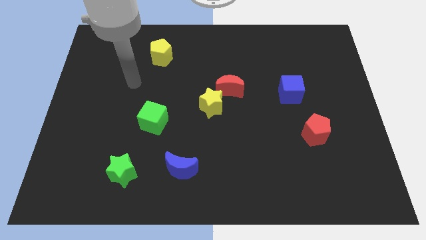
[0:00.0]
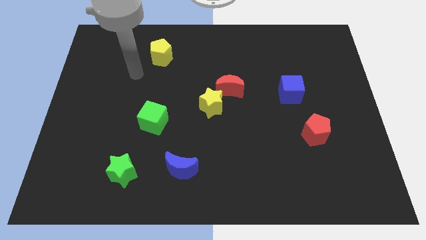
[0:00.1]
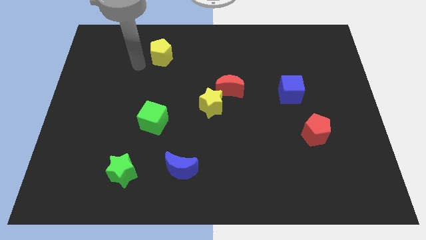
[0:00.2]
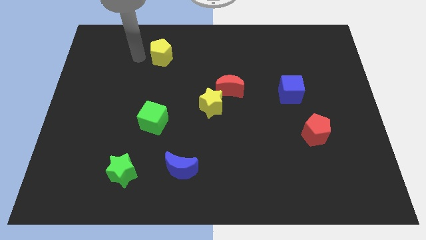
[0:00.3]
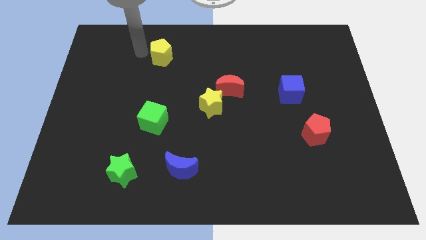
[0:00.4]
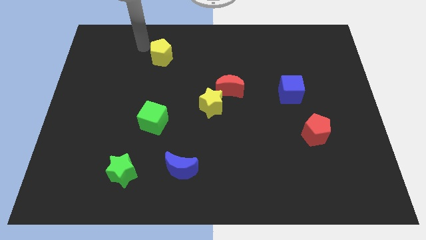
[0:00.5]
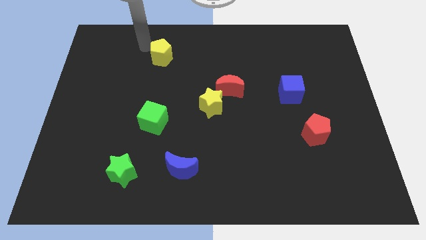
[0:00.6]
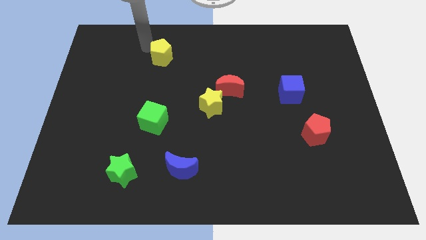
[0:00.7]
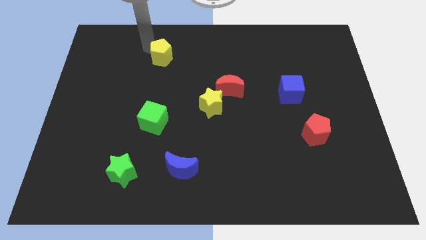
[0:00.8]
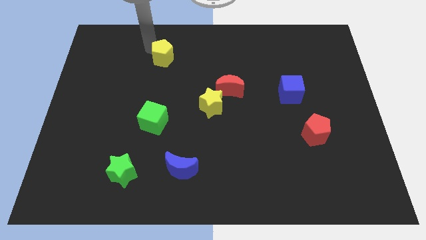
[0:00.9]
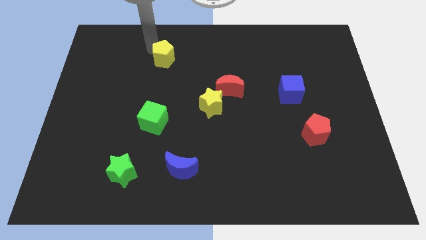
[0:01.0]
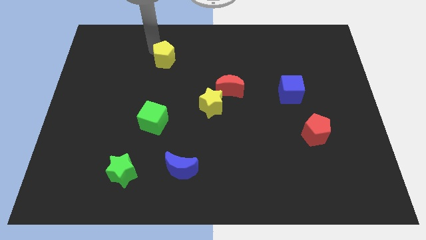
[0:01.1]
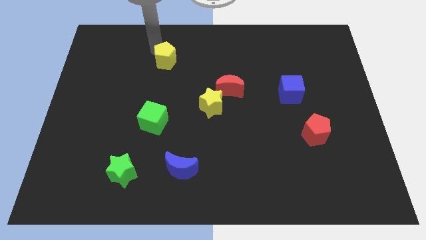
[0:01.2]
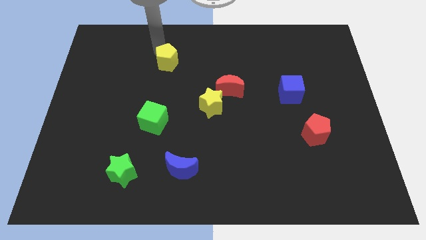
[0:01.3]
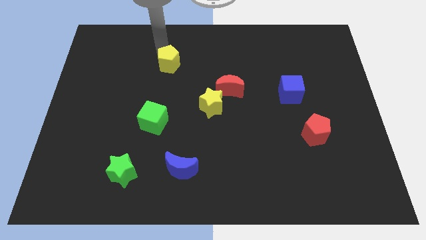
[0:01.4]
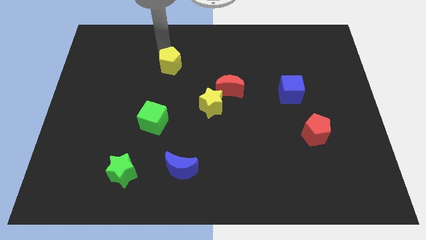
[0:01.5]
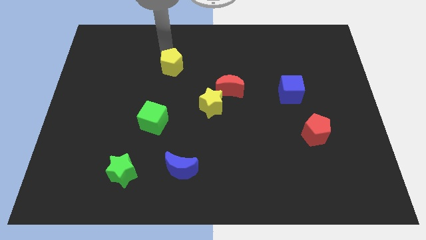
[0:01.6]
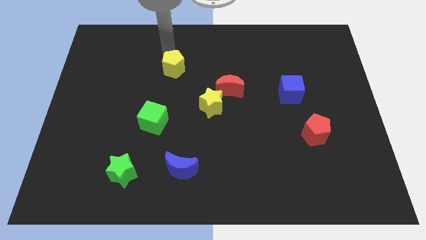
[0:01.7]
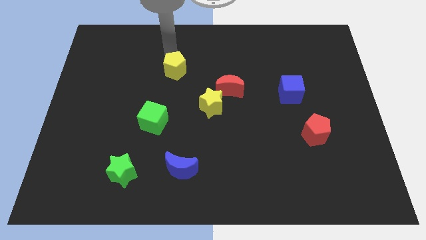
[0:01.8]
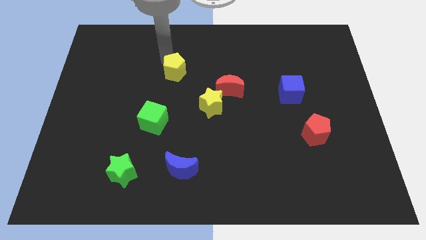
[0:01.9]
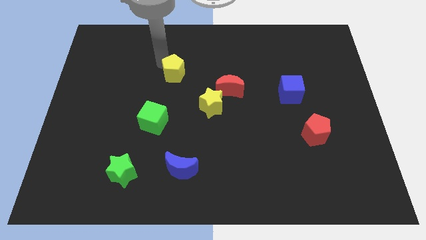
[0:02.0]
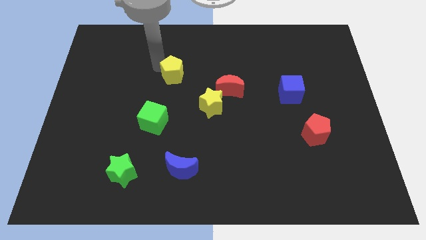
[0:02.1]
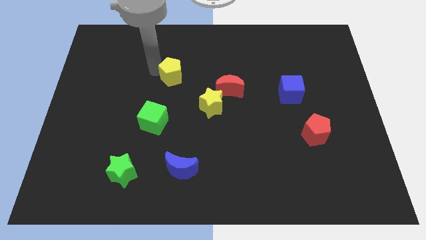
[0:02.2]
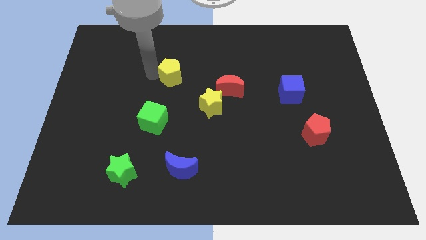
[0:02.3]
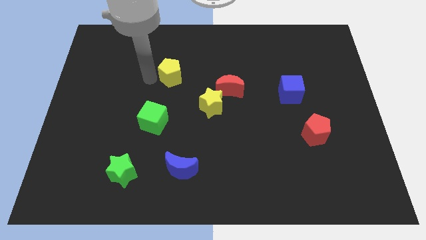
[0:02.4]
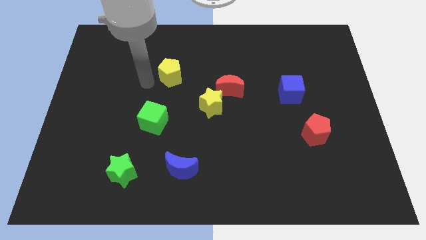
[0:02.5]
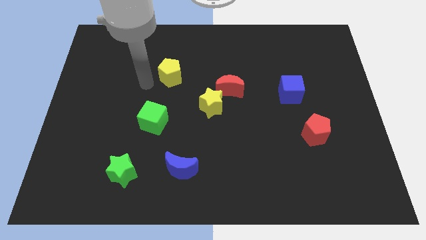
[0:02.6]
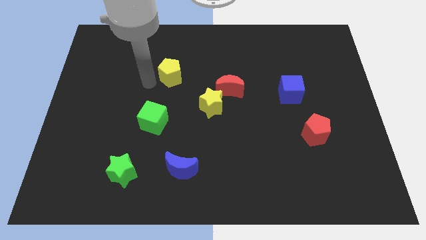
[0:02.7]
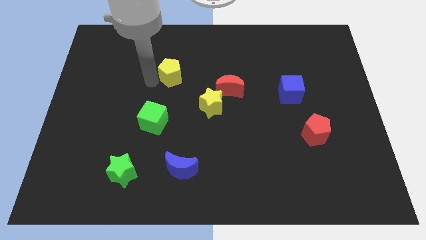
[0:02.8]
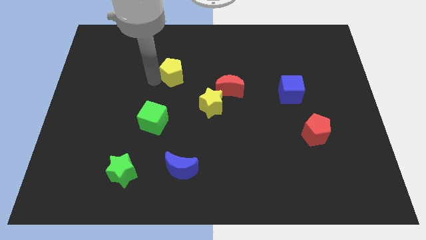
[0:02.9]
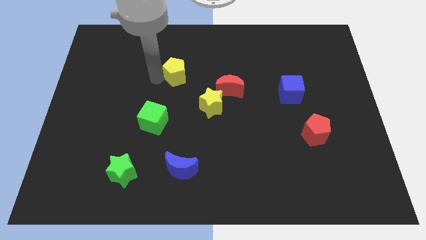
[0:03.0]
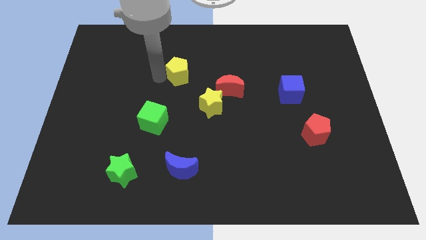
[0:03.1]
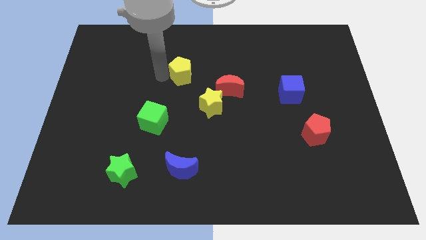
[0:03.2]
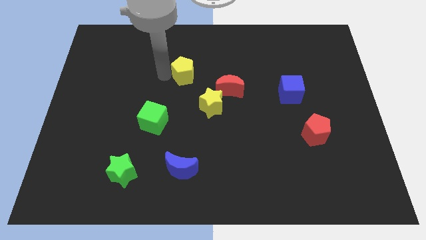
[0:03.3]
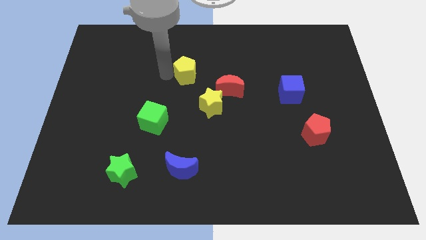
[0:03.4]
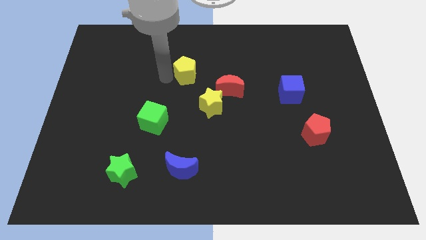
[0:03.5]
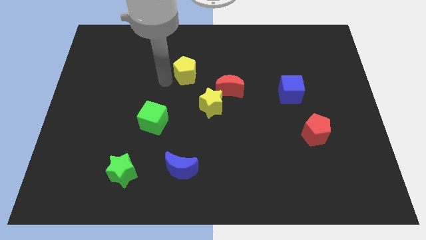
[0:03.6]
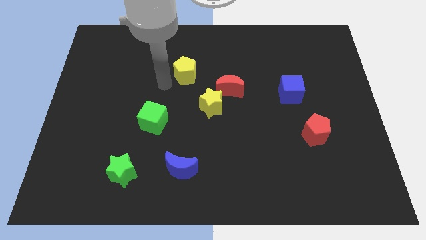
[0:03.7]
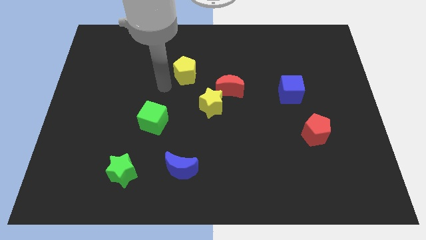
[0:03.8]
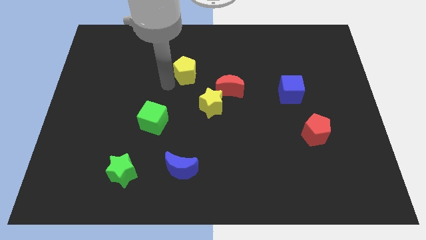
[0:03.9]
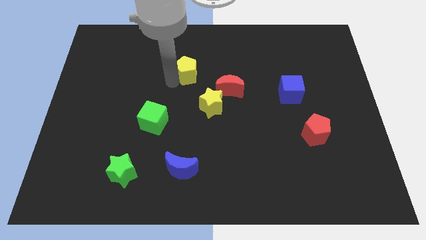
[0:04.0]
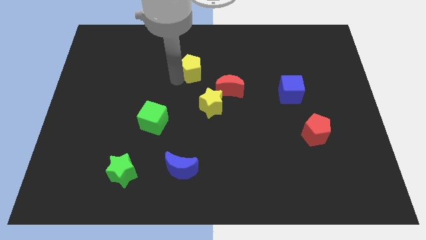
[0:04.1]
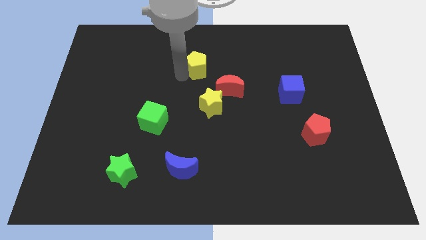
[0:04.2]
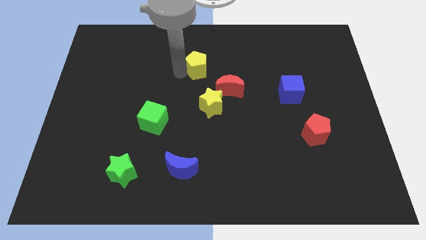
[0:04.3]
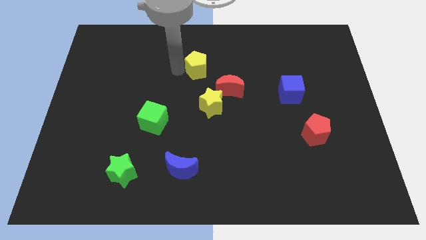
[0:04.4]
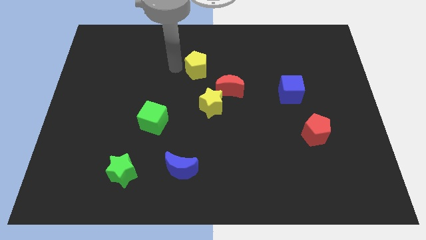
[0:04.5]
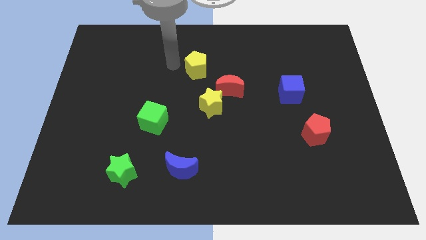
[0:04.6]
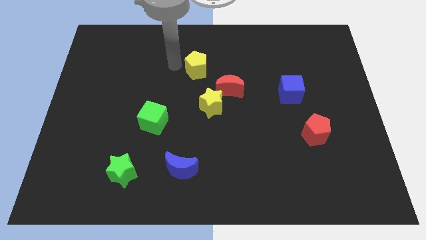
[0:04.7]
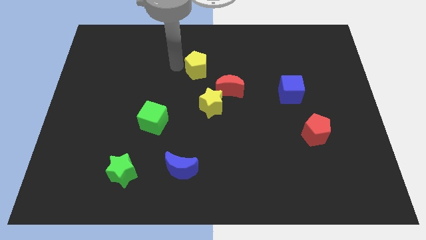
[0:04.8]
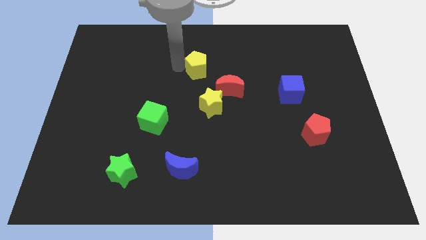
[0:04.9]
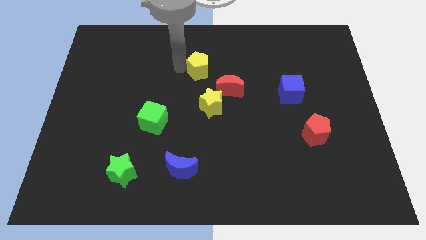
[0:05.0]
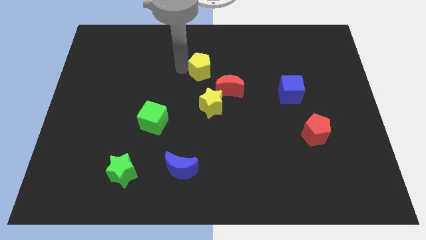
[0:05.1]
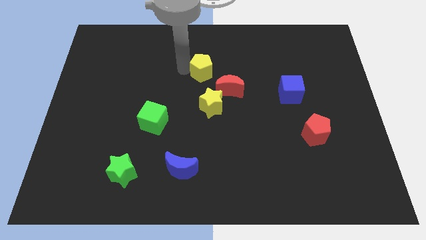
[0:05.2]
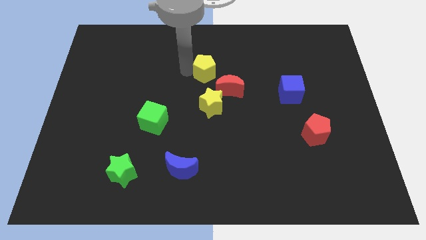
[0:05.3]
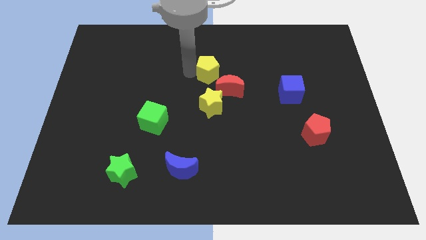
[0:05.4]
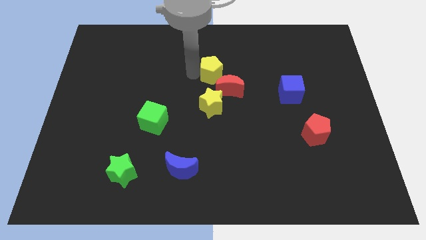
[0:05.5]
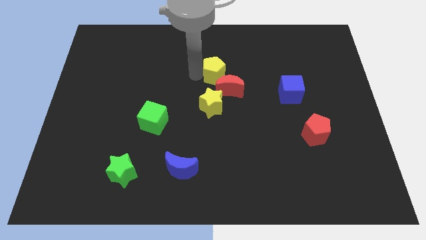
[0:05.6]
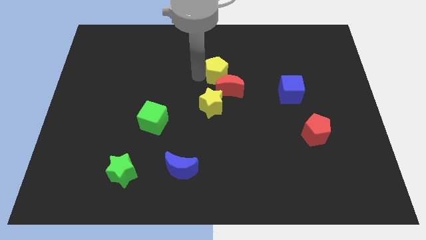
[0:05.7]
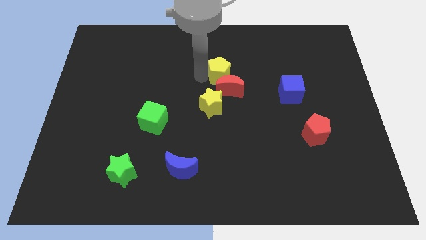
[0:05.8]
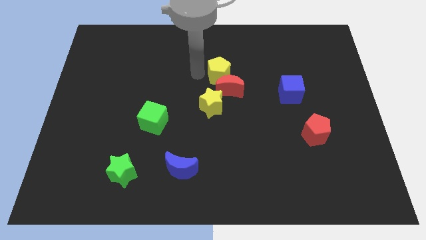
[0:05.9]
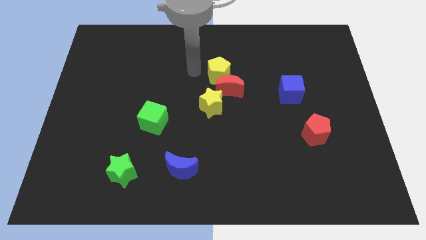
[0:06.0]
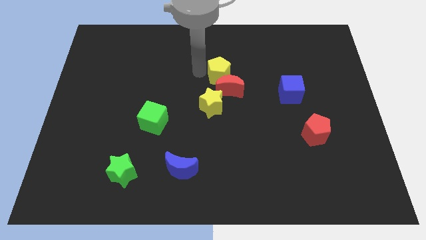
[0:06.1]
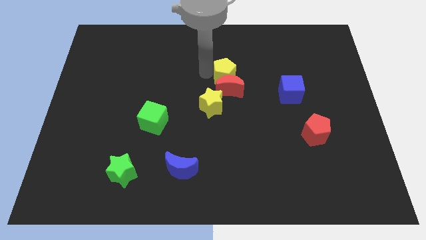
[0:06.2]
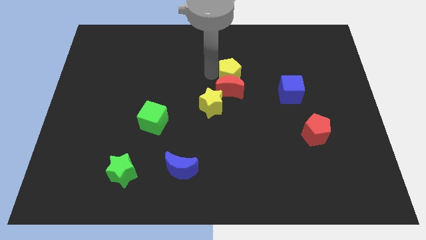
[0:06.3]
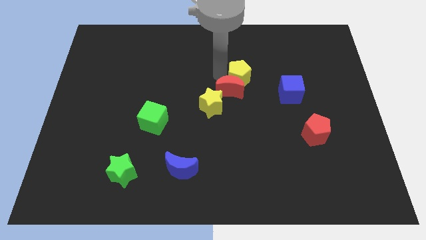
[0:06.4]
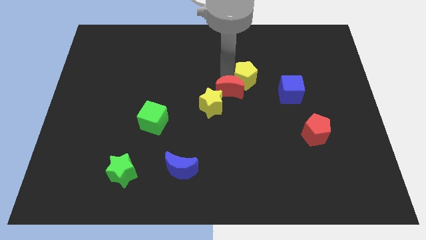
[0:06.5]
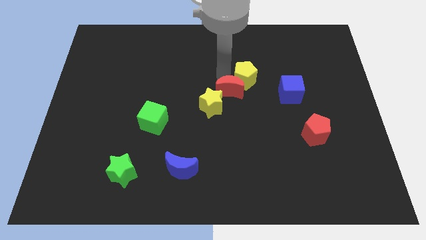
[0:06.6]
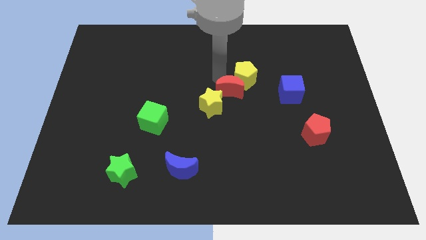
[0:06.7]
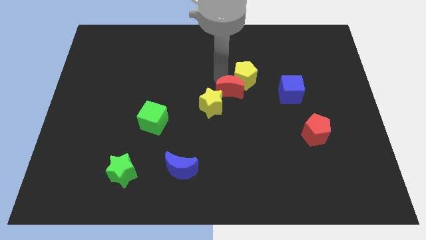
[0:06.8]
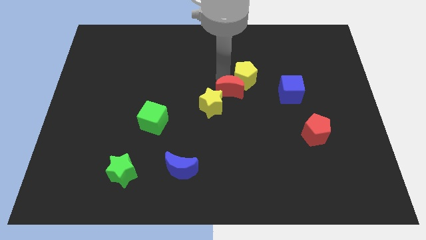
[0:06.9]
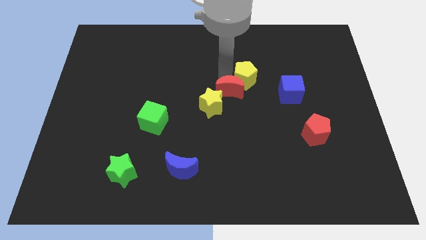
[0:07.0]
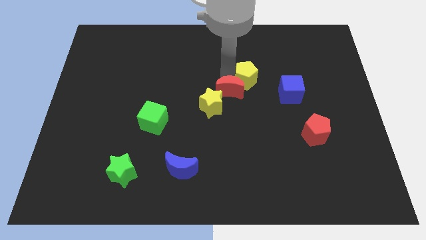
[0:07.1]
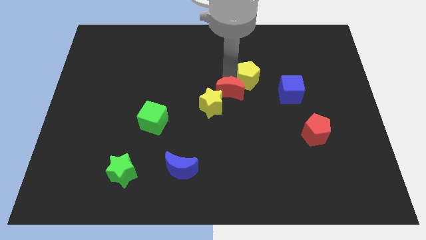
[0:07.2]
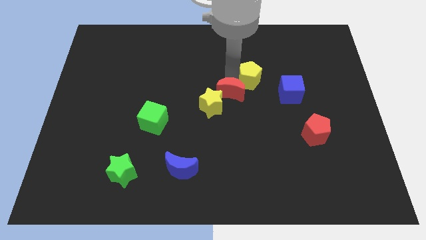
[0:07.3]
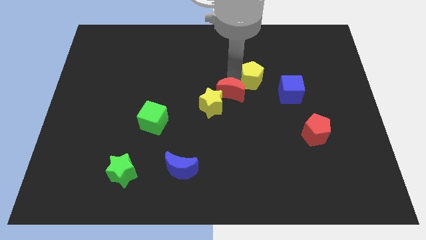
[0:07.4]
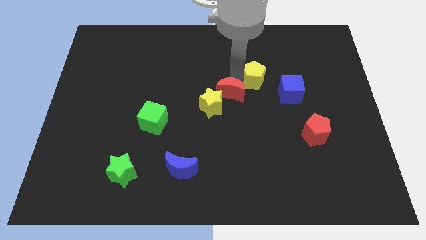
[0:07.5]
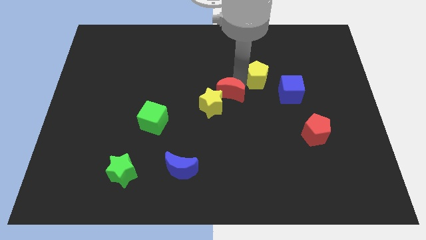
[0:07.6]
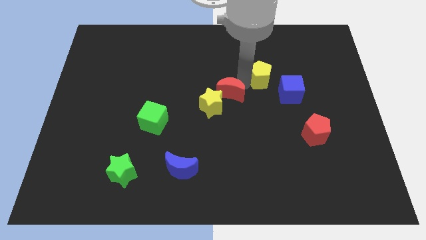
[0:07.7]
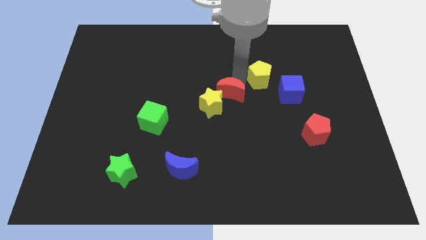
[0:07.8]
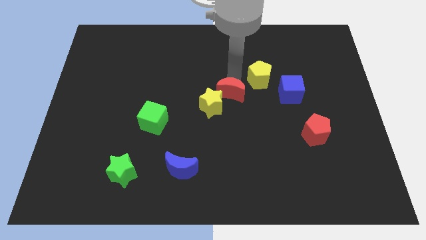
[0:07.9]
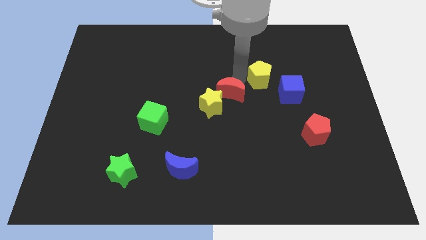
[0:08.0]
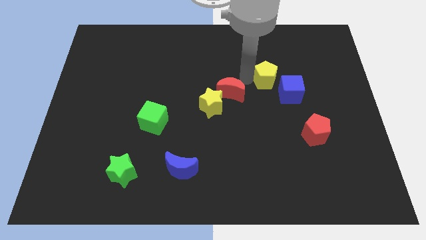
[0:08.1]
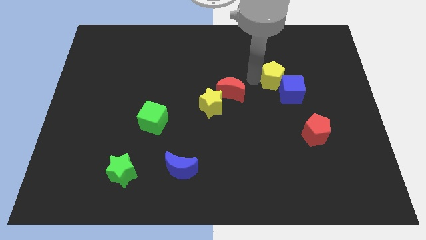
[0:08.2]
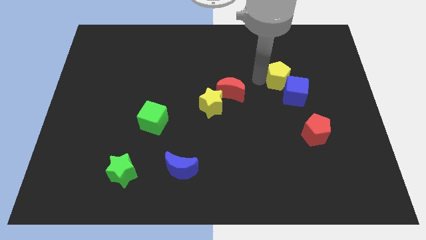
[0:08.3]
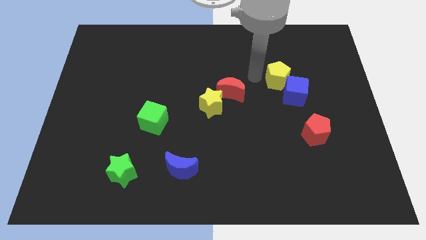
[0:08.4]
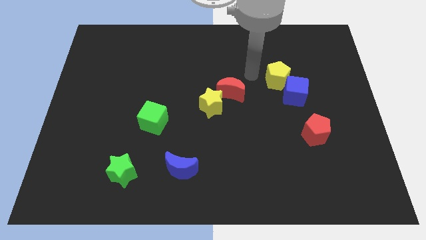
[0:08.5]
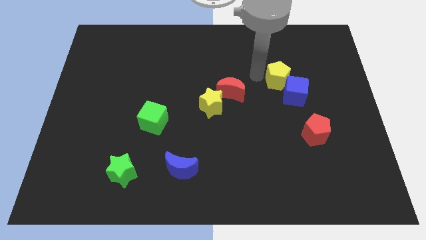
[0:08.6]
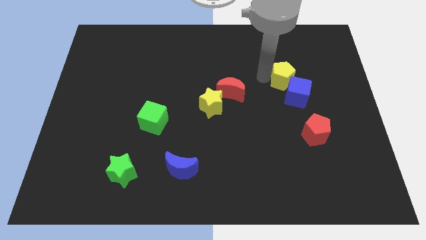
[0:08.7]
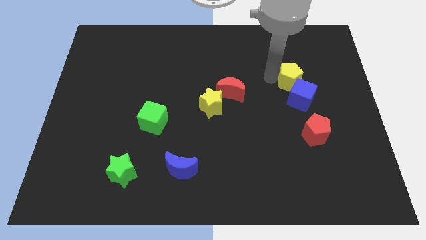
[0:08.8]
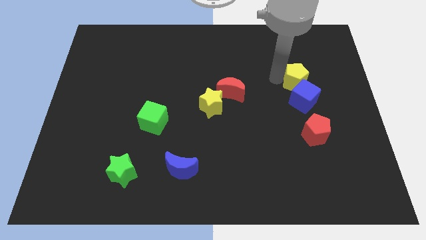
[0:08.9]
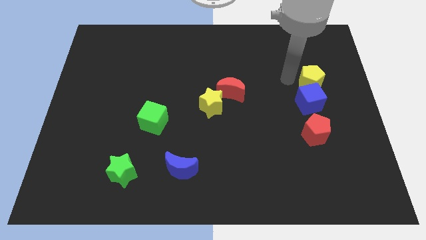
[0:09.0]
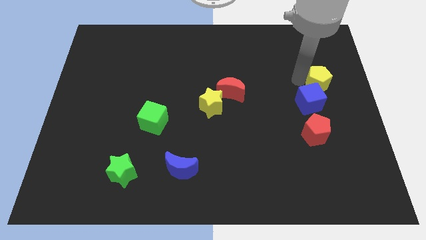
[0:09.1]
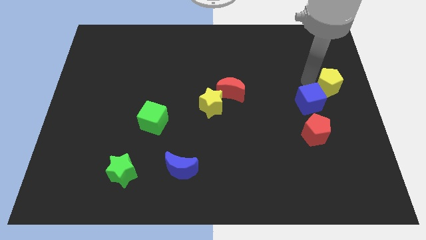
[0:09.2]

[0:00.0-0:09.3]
put the yellow pentagon to the right side of the blue cube
